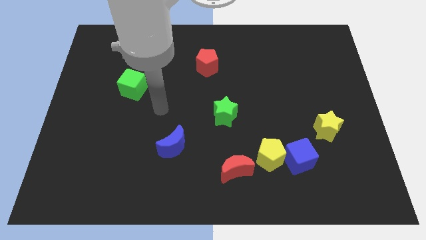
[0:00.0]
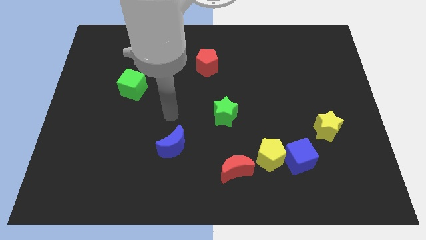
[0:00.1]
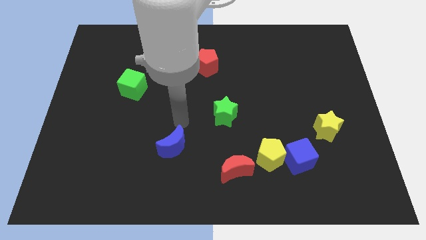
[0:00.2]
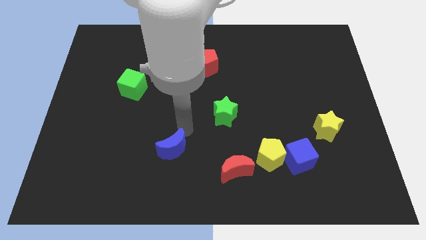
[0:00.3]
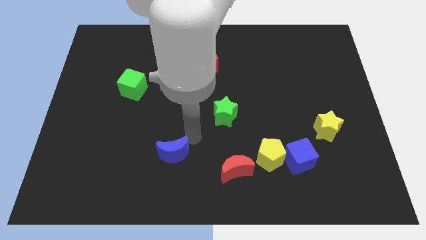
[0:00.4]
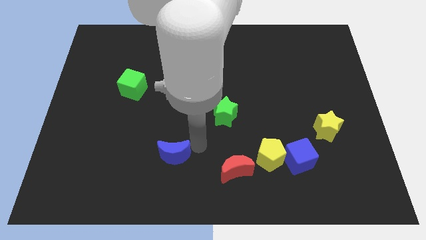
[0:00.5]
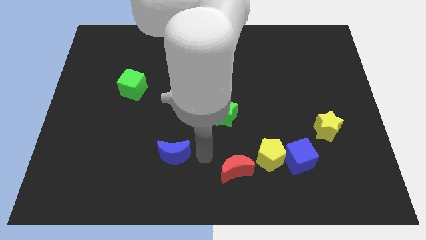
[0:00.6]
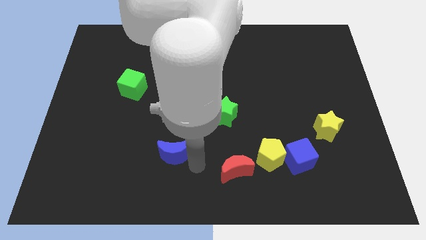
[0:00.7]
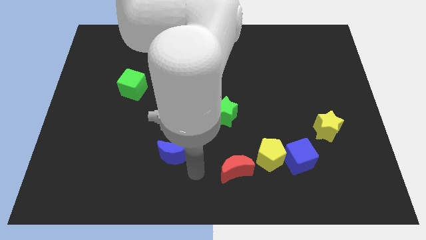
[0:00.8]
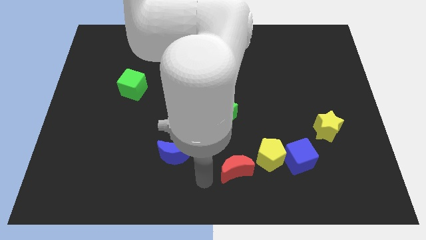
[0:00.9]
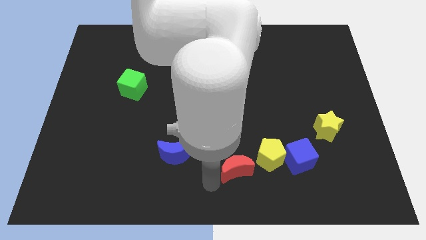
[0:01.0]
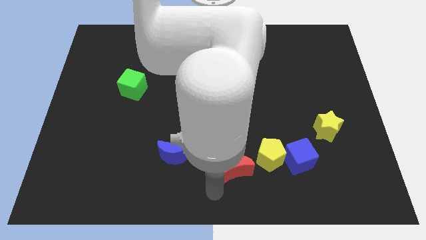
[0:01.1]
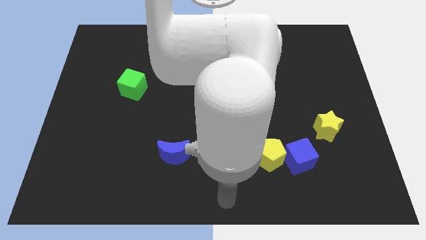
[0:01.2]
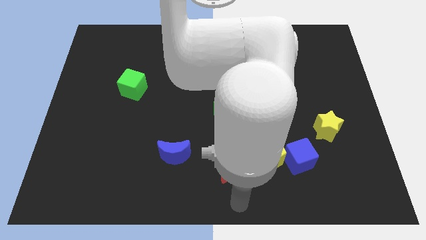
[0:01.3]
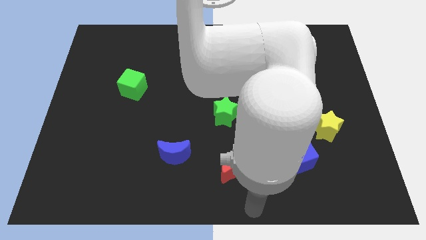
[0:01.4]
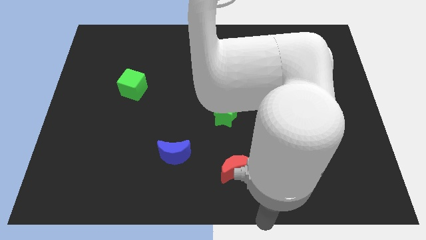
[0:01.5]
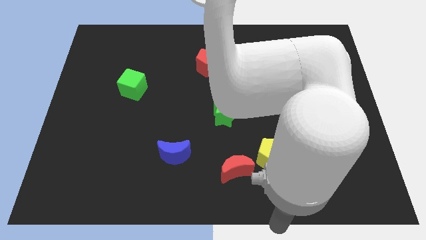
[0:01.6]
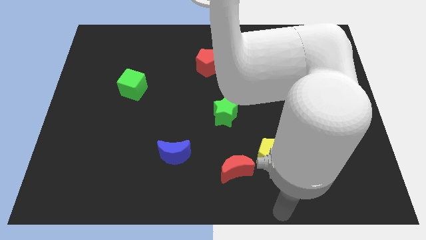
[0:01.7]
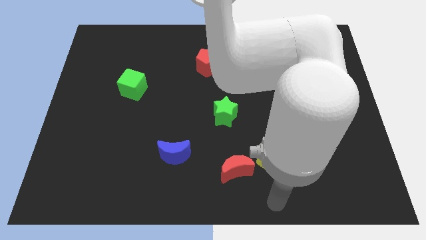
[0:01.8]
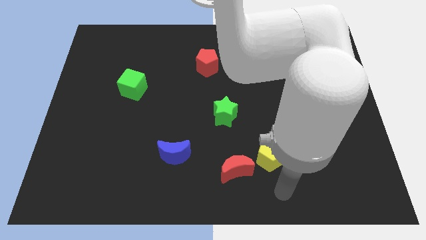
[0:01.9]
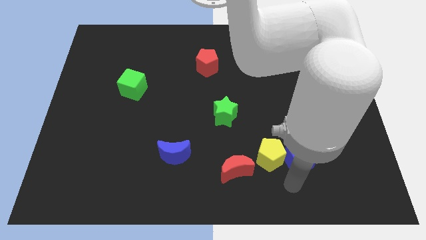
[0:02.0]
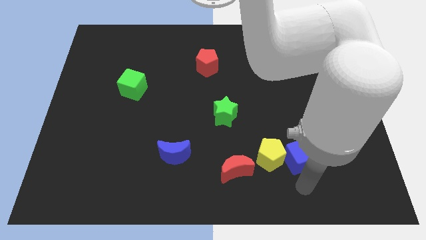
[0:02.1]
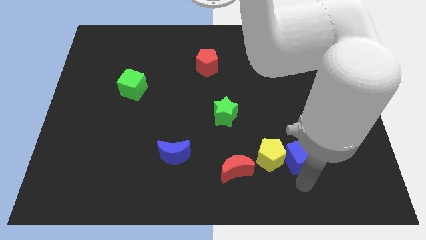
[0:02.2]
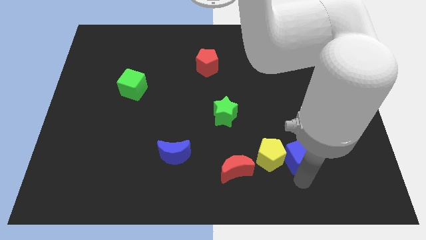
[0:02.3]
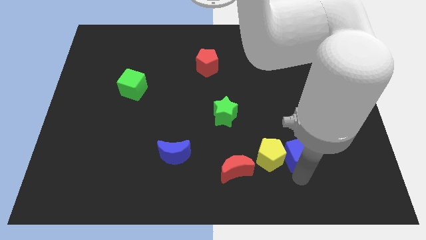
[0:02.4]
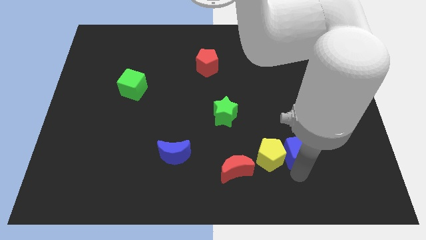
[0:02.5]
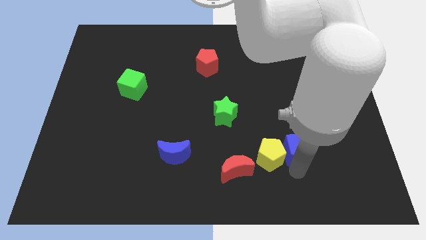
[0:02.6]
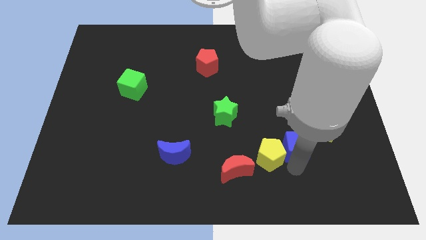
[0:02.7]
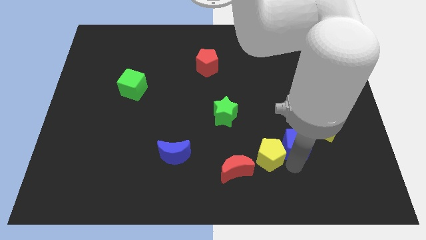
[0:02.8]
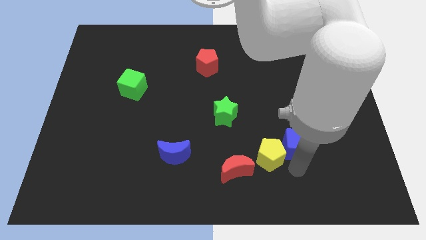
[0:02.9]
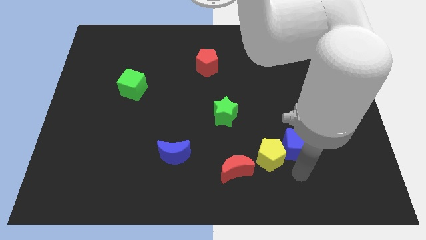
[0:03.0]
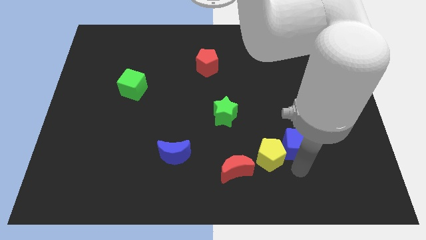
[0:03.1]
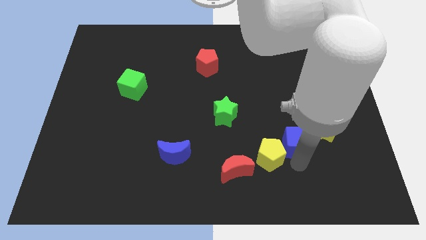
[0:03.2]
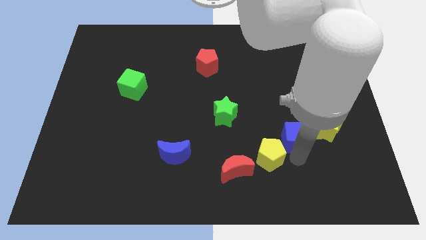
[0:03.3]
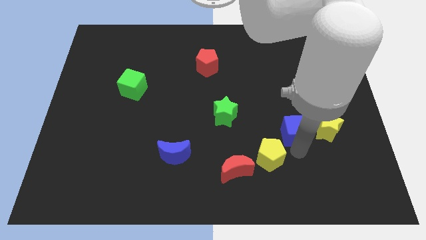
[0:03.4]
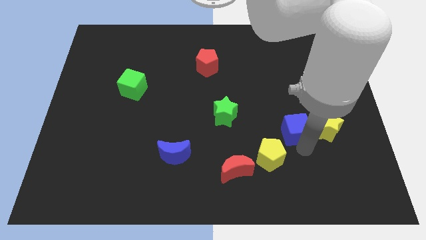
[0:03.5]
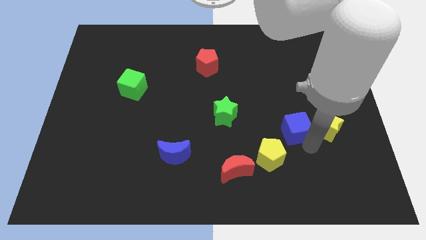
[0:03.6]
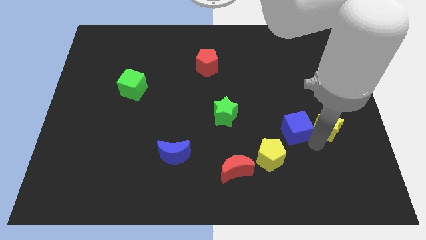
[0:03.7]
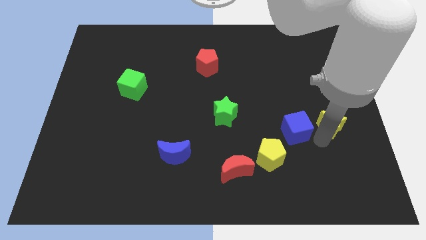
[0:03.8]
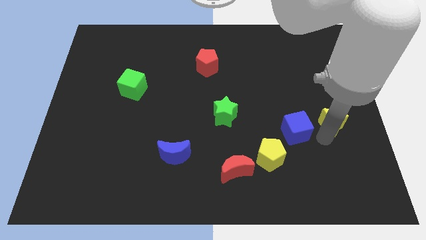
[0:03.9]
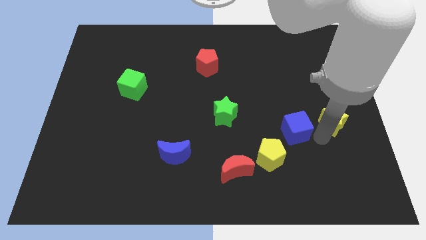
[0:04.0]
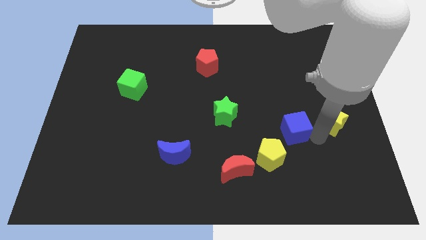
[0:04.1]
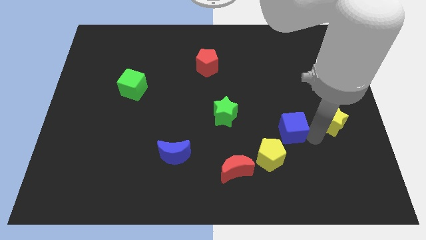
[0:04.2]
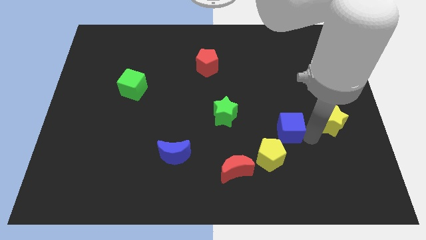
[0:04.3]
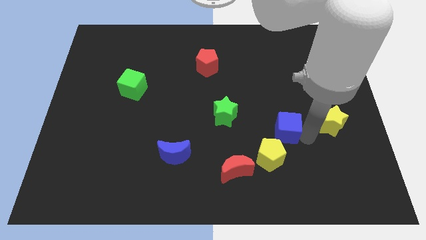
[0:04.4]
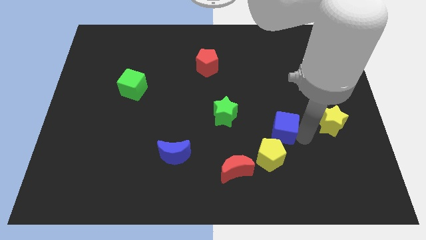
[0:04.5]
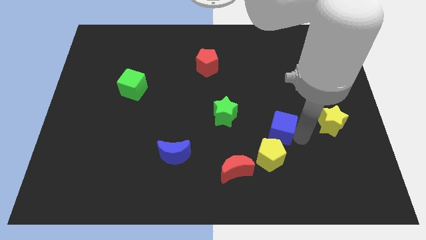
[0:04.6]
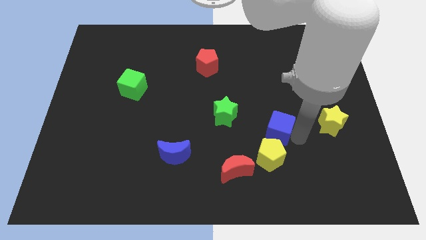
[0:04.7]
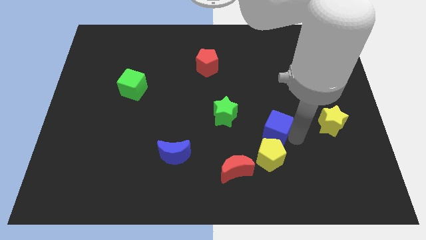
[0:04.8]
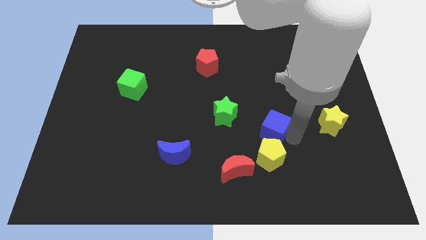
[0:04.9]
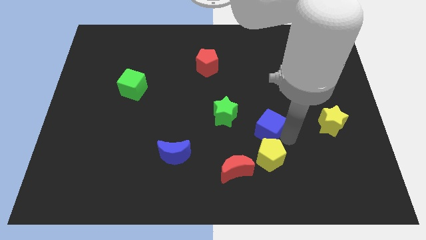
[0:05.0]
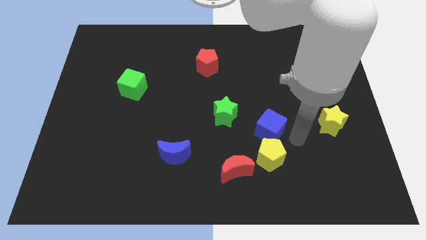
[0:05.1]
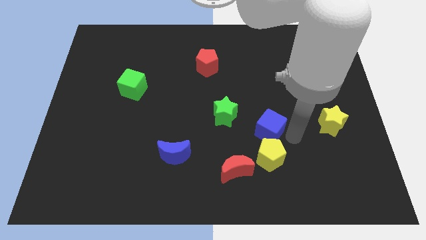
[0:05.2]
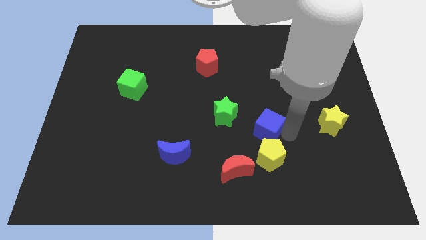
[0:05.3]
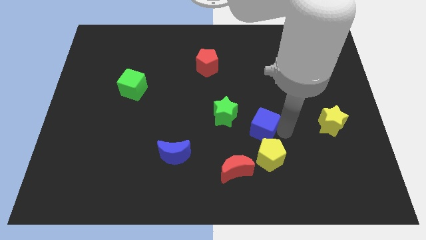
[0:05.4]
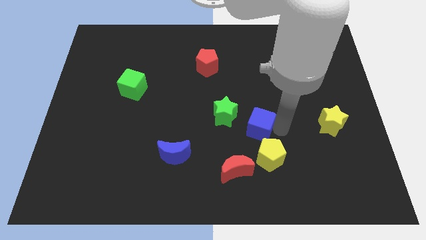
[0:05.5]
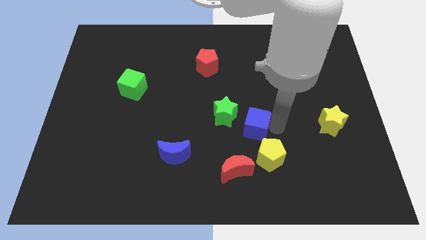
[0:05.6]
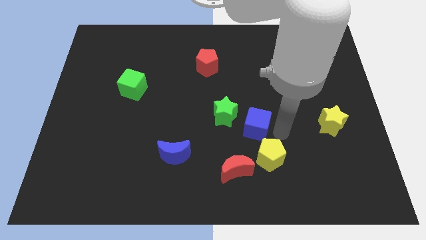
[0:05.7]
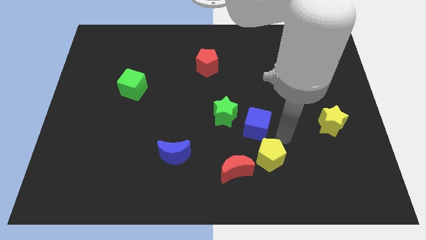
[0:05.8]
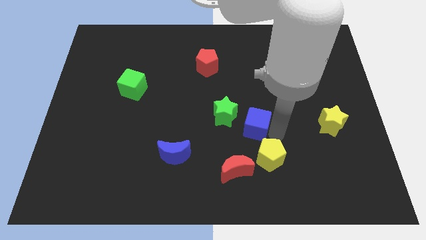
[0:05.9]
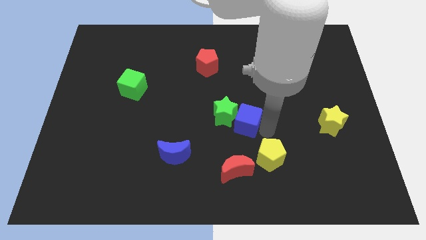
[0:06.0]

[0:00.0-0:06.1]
move the blue cube towards the green star

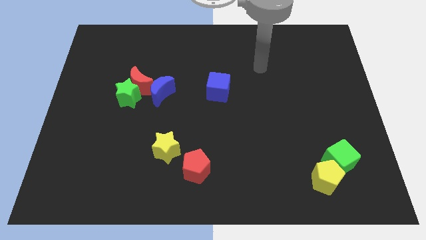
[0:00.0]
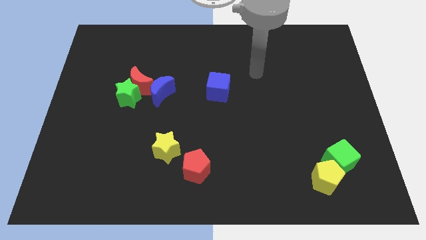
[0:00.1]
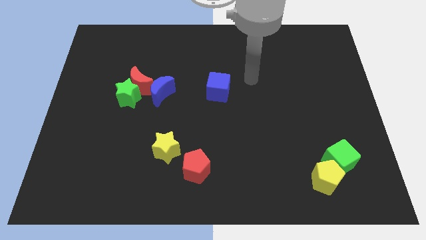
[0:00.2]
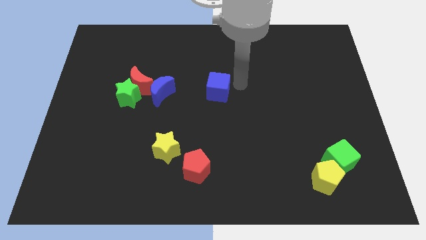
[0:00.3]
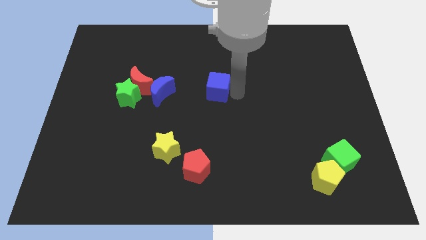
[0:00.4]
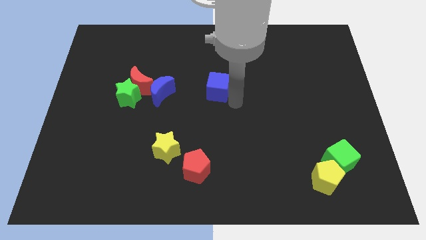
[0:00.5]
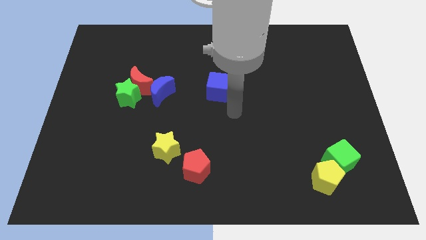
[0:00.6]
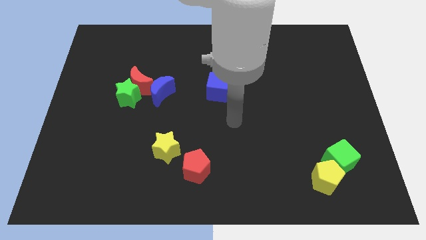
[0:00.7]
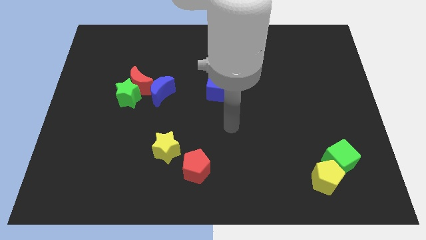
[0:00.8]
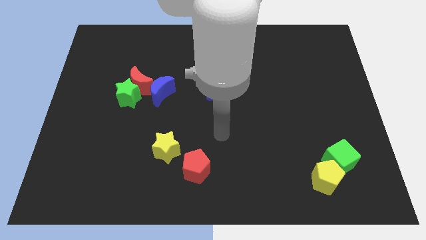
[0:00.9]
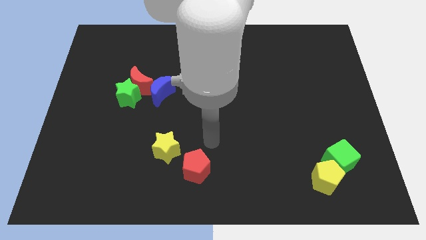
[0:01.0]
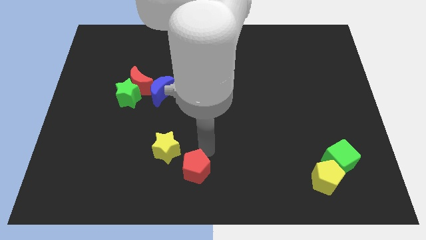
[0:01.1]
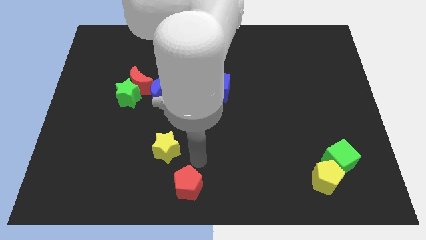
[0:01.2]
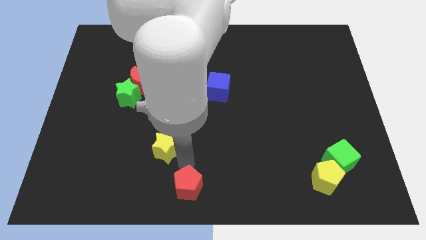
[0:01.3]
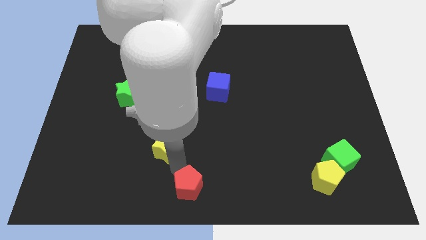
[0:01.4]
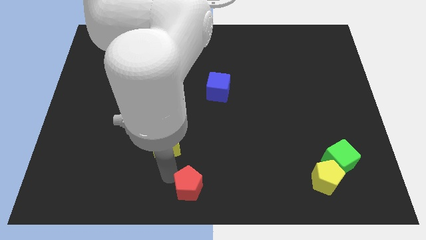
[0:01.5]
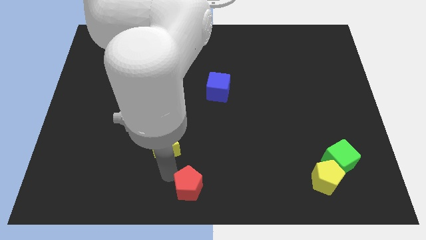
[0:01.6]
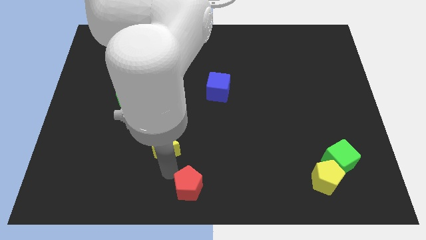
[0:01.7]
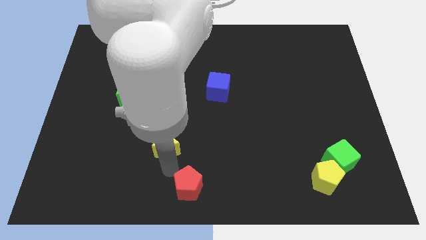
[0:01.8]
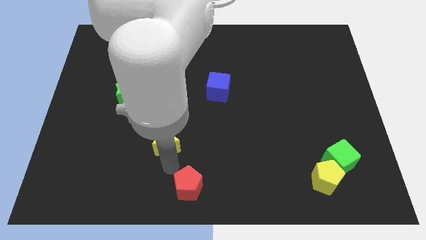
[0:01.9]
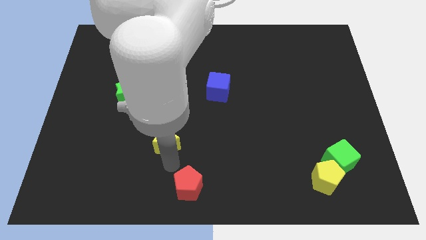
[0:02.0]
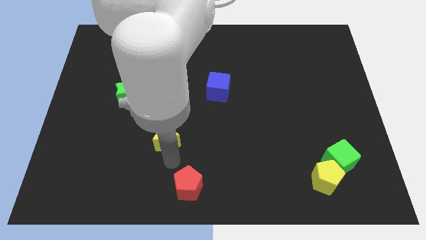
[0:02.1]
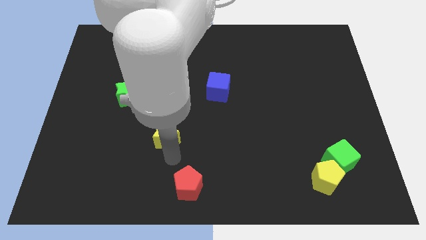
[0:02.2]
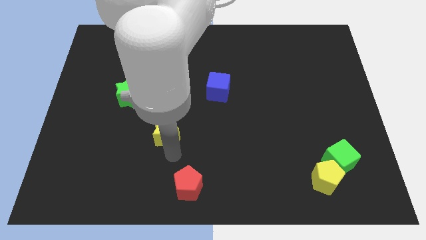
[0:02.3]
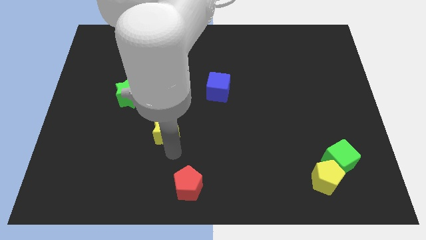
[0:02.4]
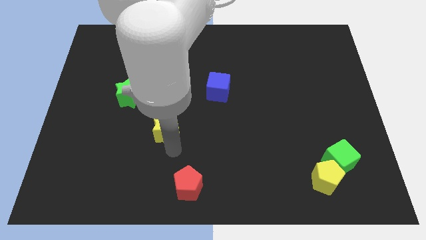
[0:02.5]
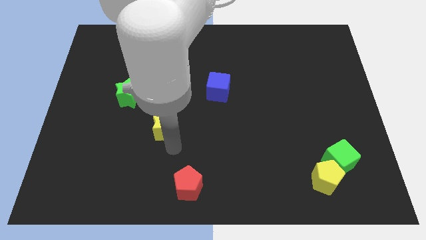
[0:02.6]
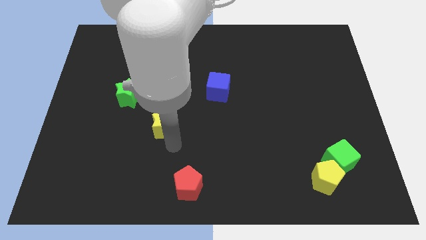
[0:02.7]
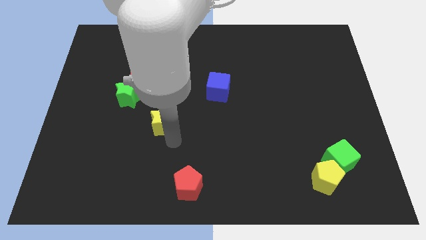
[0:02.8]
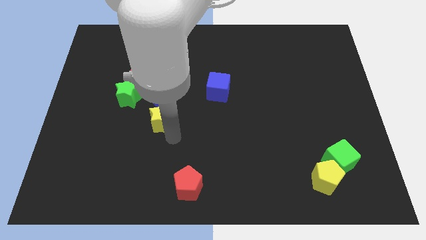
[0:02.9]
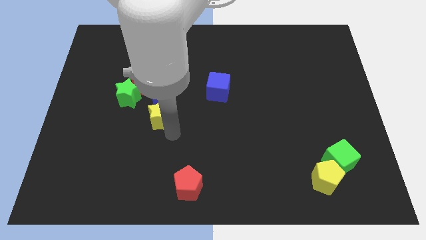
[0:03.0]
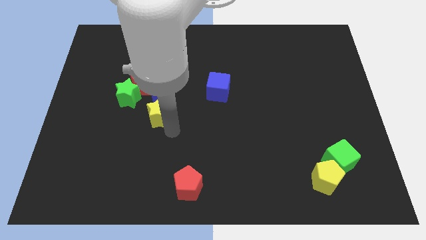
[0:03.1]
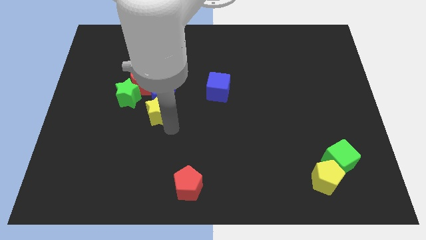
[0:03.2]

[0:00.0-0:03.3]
move the yellow star next to the blue moon
